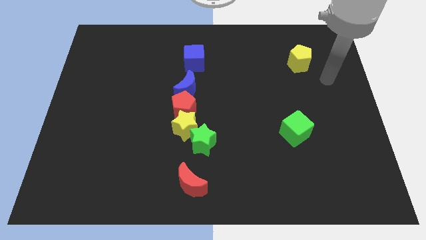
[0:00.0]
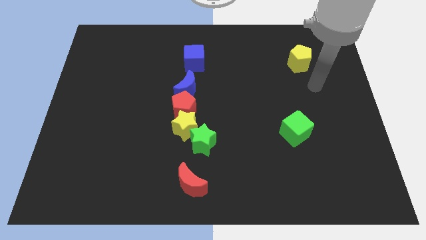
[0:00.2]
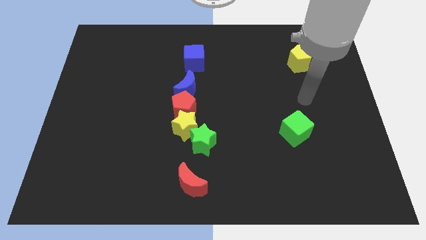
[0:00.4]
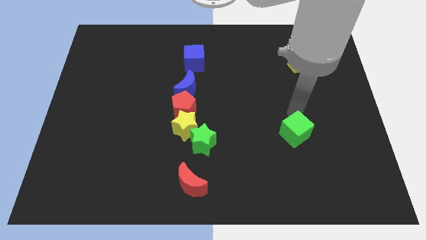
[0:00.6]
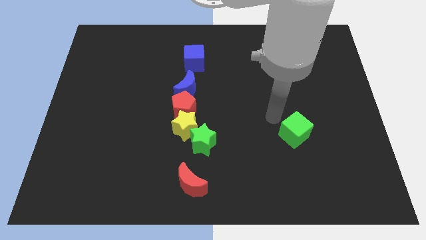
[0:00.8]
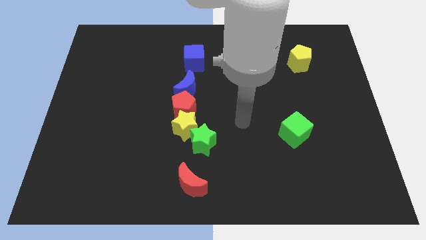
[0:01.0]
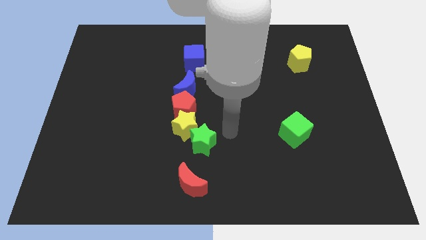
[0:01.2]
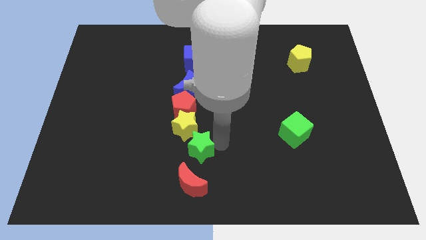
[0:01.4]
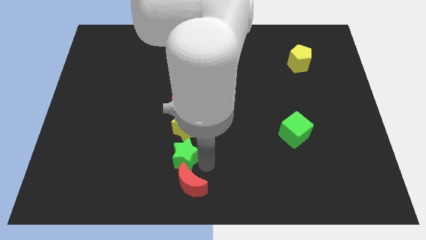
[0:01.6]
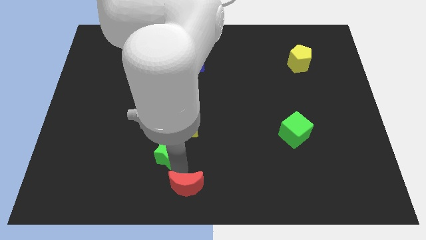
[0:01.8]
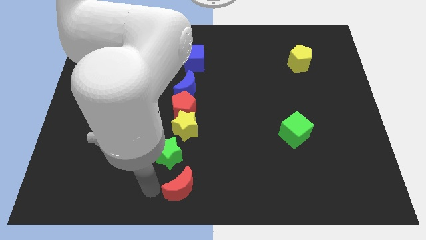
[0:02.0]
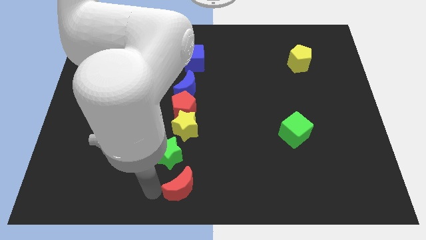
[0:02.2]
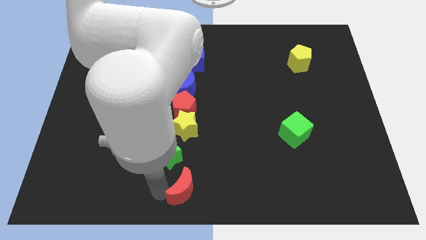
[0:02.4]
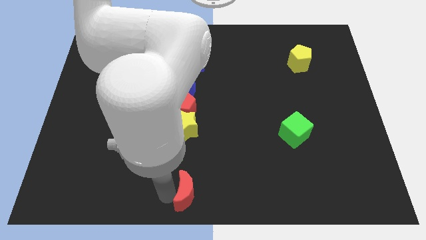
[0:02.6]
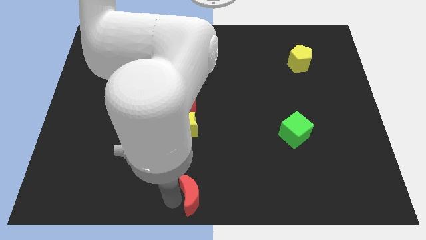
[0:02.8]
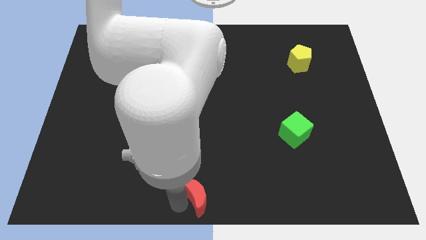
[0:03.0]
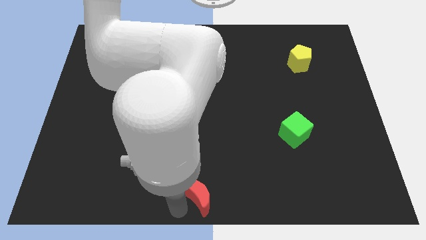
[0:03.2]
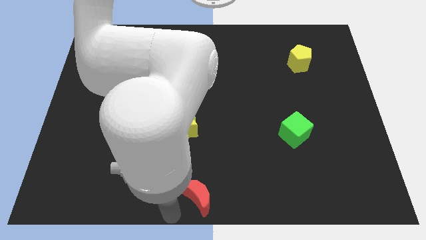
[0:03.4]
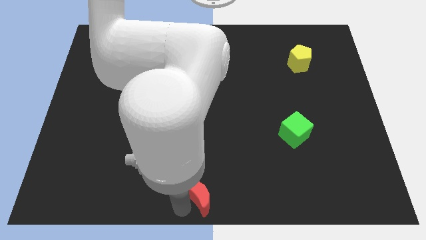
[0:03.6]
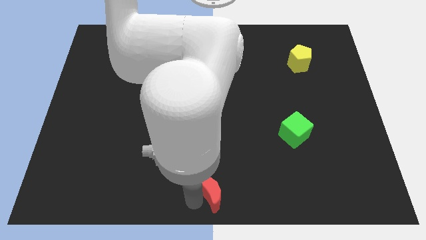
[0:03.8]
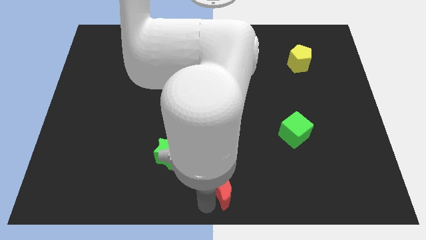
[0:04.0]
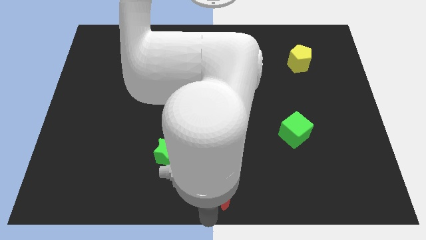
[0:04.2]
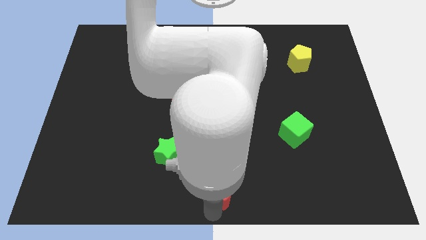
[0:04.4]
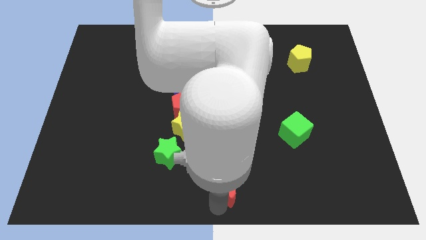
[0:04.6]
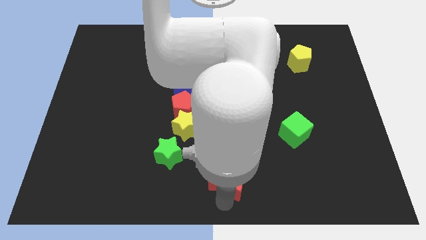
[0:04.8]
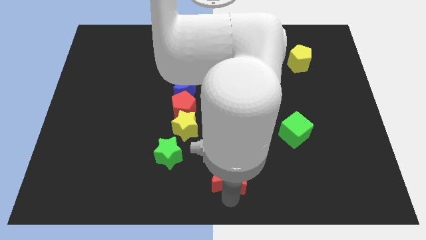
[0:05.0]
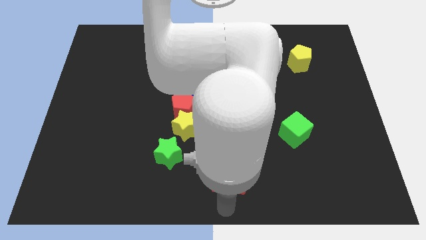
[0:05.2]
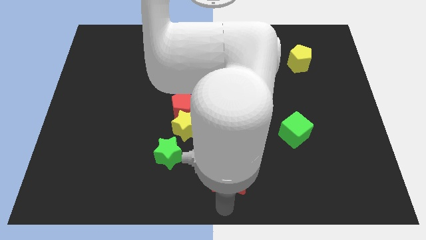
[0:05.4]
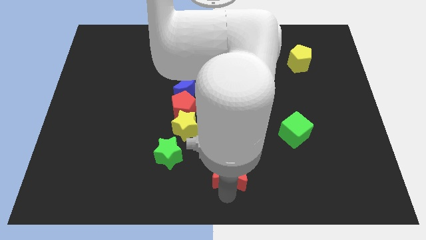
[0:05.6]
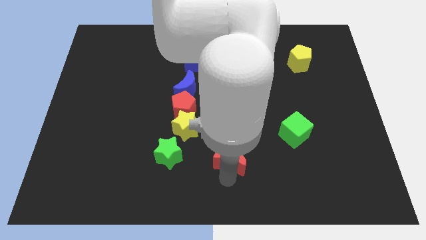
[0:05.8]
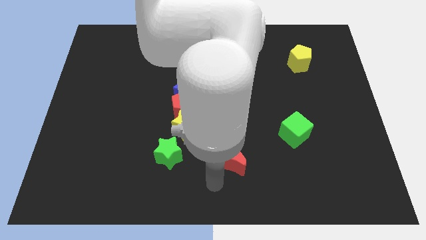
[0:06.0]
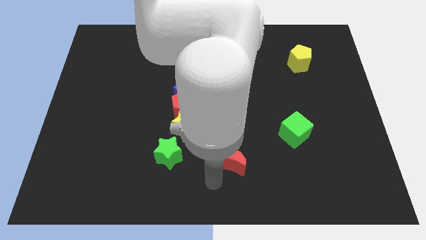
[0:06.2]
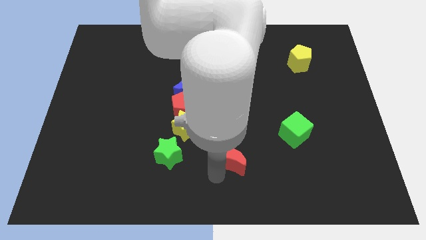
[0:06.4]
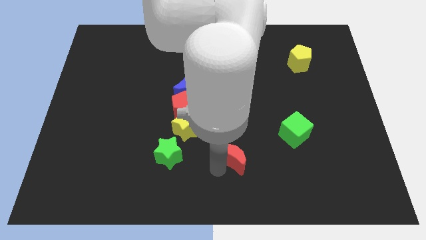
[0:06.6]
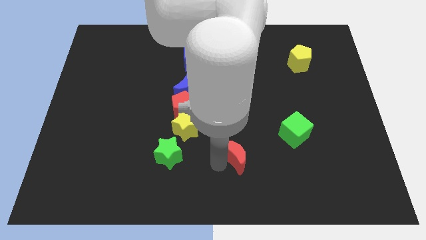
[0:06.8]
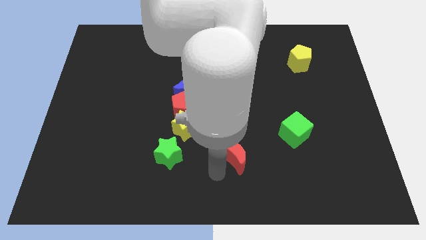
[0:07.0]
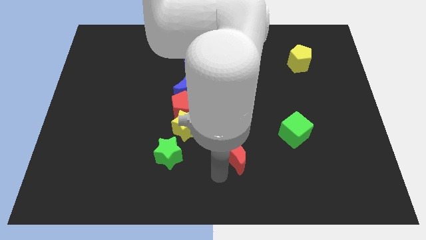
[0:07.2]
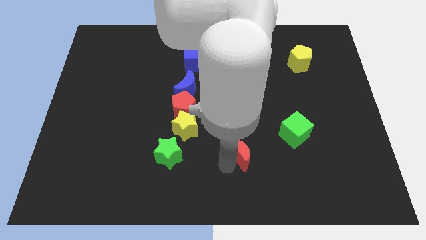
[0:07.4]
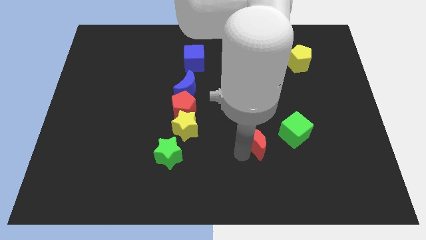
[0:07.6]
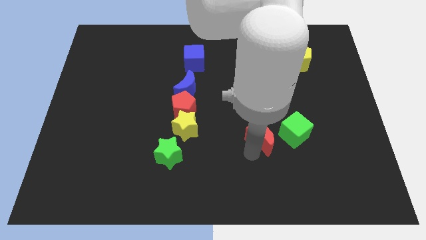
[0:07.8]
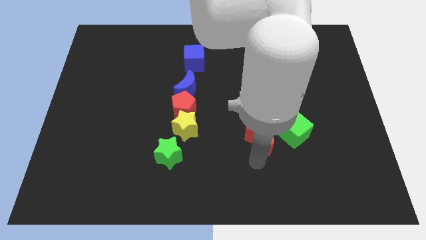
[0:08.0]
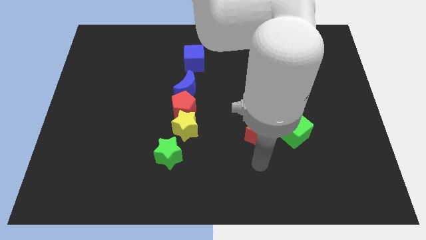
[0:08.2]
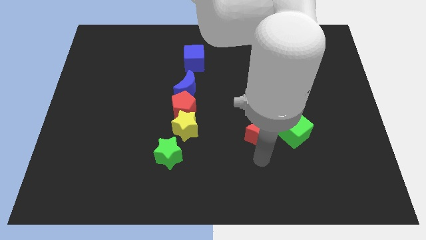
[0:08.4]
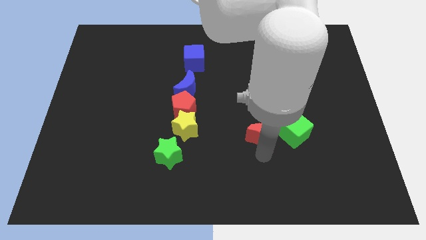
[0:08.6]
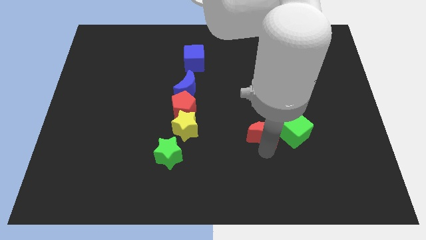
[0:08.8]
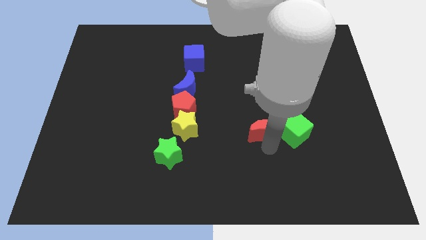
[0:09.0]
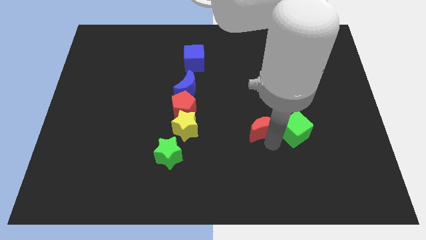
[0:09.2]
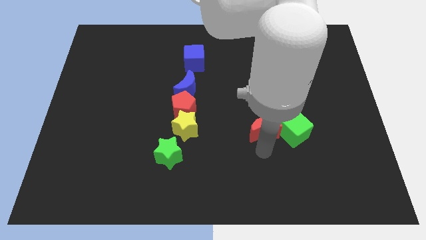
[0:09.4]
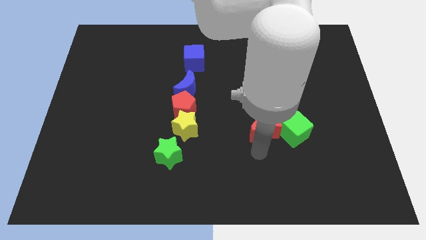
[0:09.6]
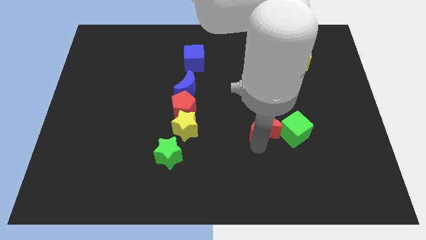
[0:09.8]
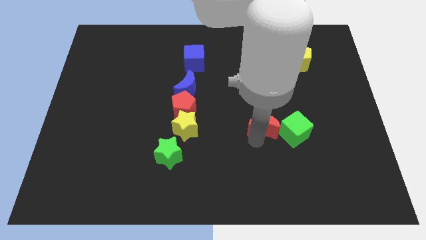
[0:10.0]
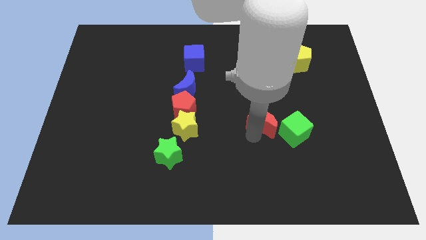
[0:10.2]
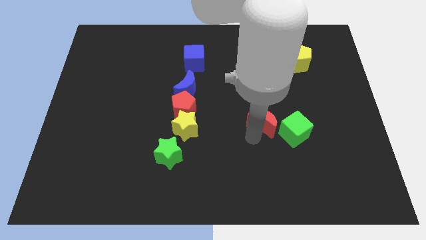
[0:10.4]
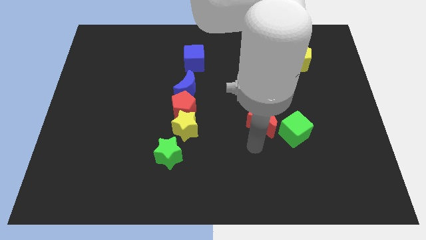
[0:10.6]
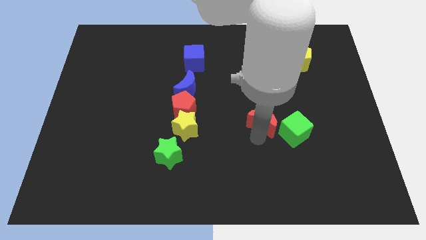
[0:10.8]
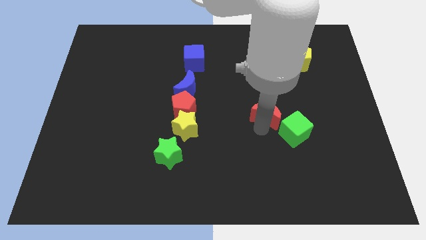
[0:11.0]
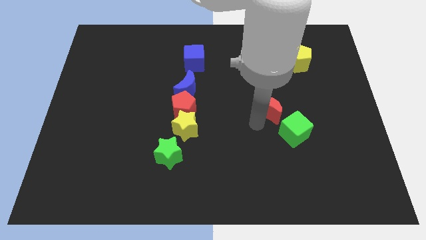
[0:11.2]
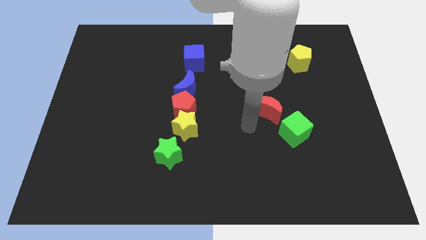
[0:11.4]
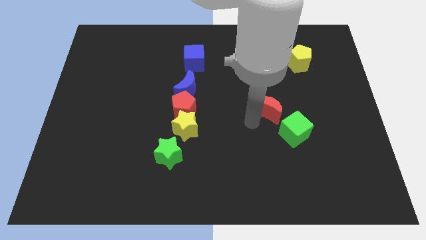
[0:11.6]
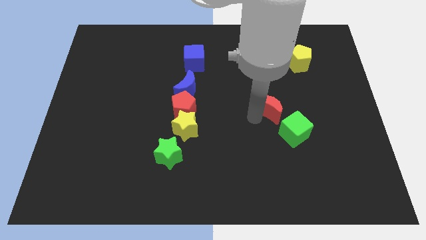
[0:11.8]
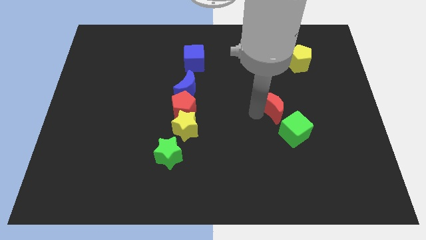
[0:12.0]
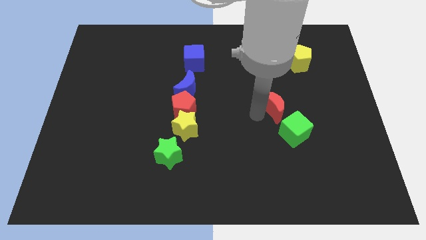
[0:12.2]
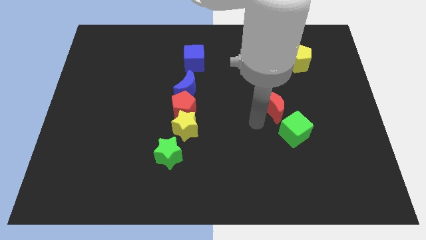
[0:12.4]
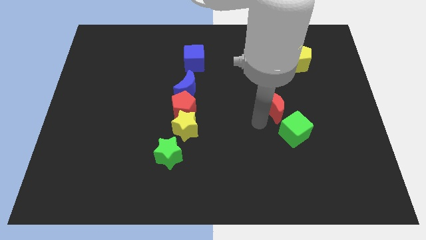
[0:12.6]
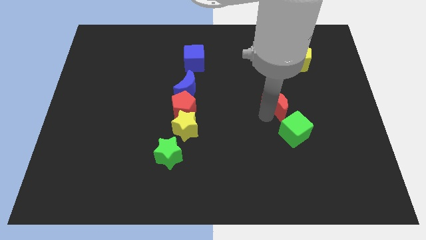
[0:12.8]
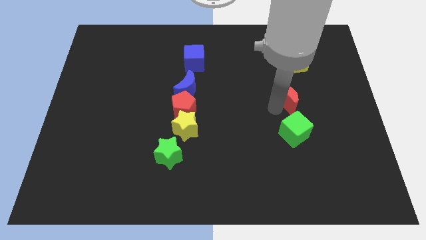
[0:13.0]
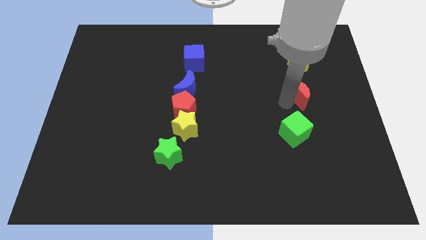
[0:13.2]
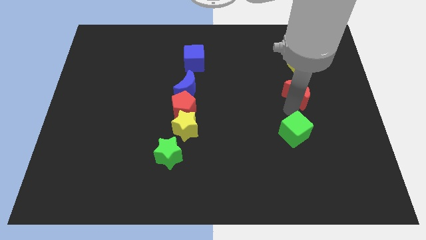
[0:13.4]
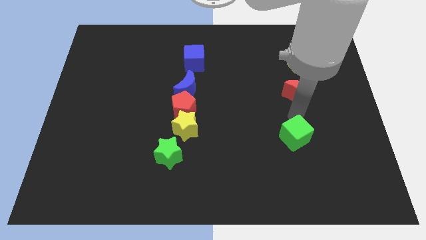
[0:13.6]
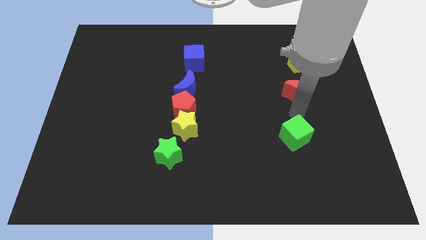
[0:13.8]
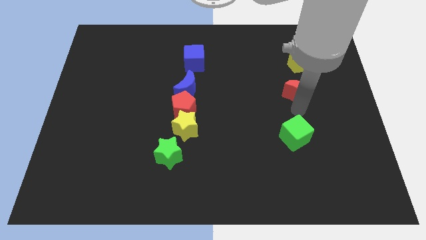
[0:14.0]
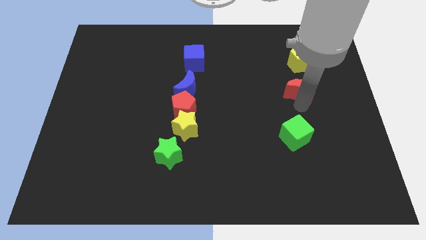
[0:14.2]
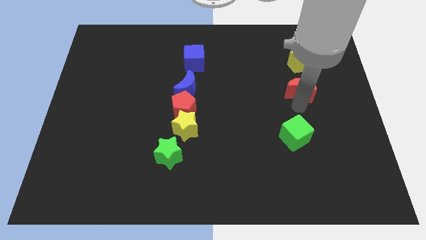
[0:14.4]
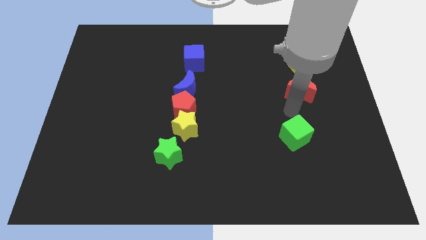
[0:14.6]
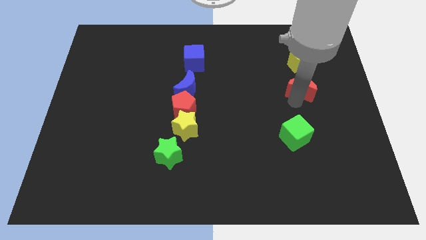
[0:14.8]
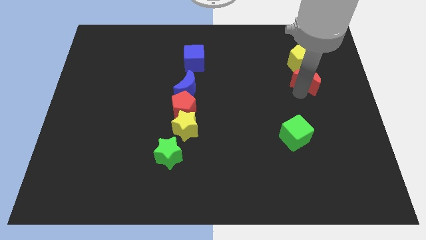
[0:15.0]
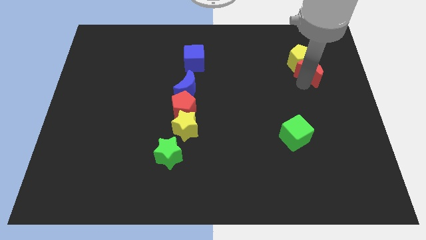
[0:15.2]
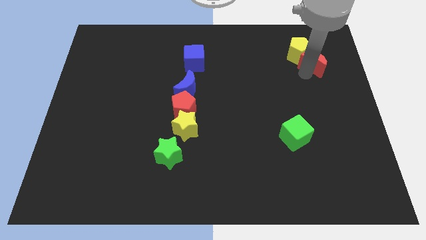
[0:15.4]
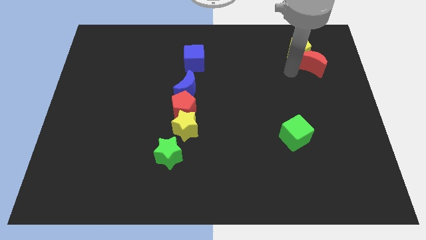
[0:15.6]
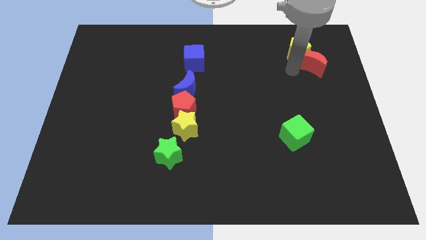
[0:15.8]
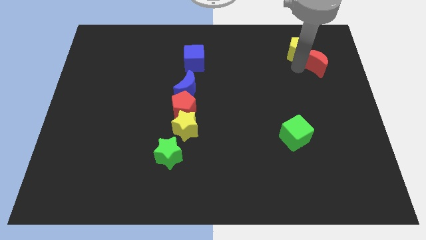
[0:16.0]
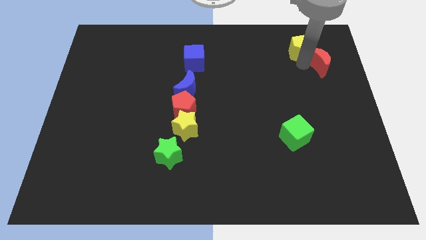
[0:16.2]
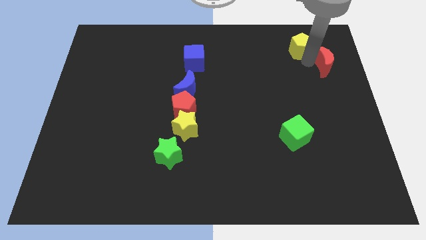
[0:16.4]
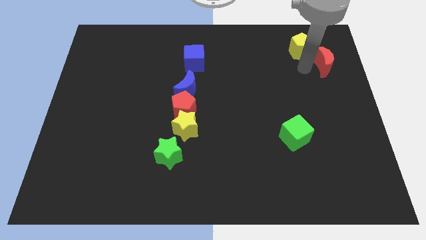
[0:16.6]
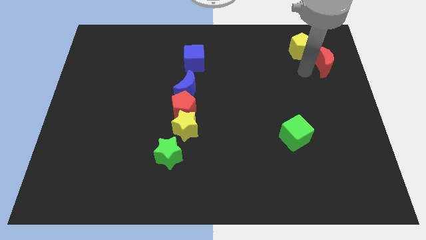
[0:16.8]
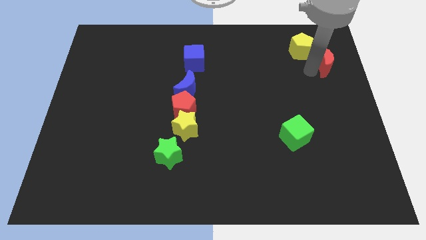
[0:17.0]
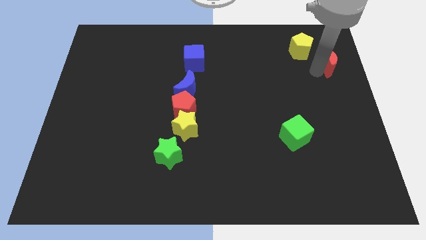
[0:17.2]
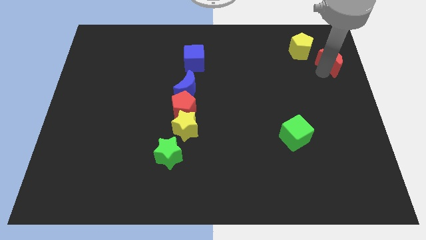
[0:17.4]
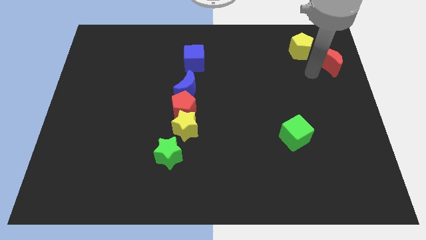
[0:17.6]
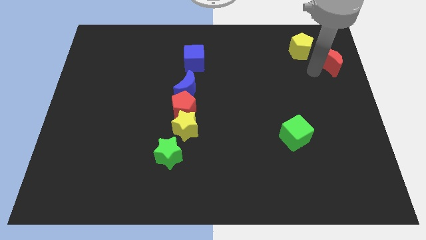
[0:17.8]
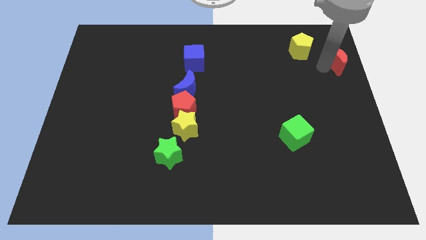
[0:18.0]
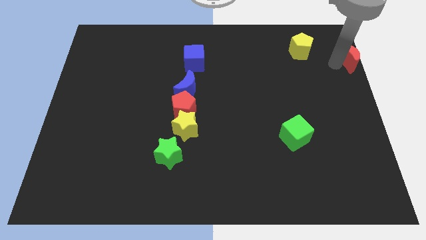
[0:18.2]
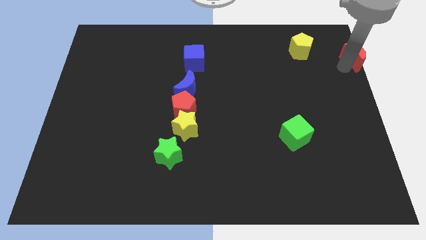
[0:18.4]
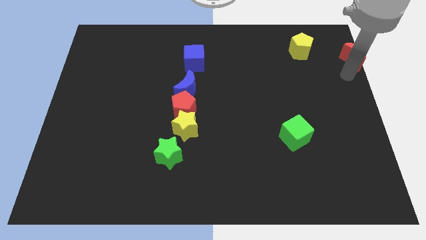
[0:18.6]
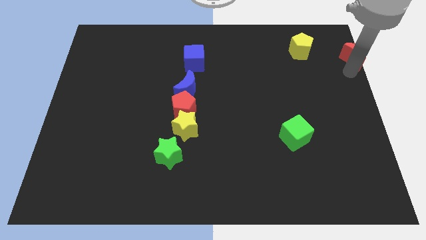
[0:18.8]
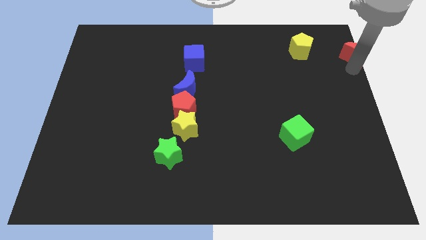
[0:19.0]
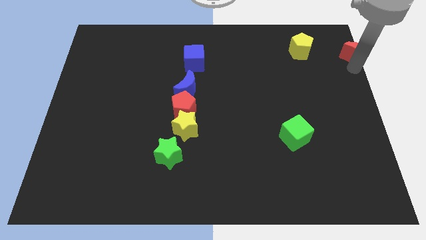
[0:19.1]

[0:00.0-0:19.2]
push the red moon to the upper right corner
